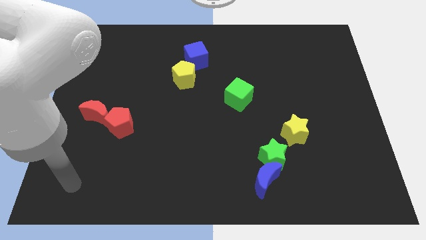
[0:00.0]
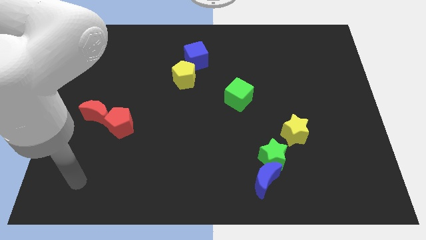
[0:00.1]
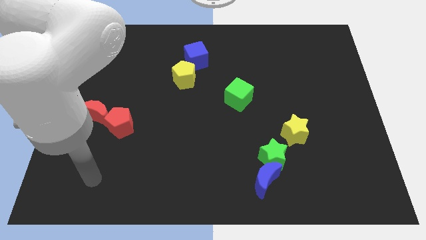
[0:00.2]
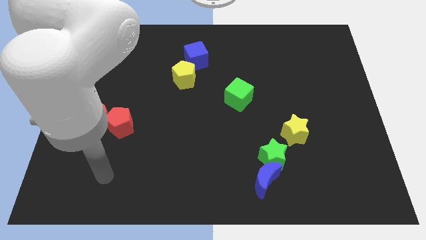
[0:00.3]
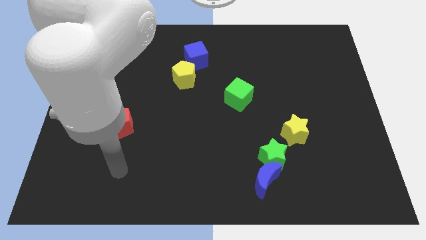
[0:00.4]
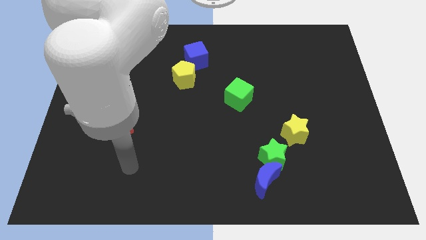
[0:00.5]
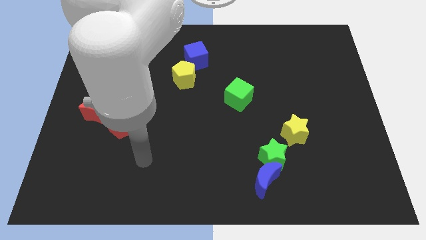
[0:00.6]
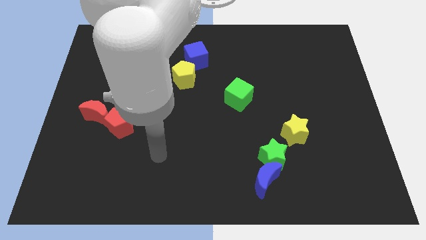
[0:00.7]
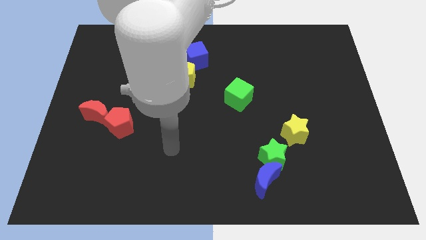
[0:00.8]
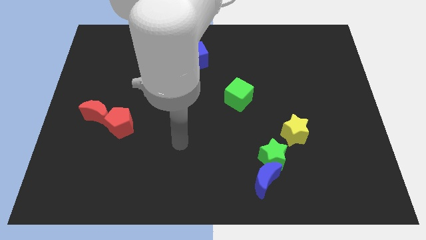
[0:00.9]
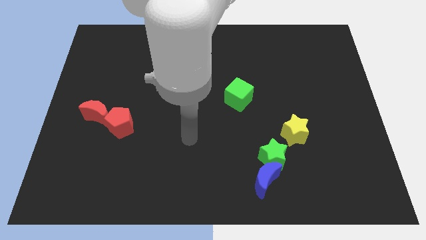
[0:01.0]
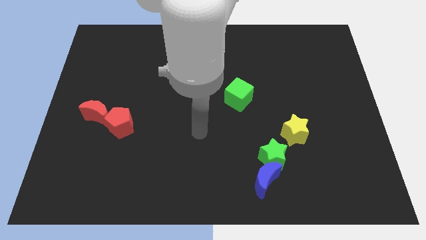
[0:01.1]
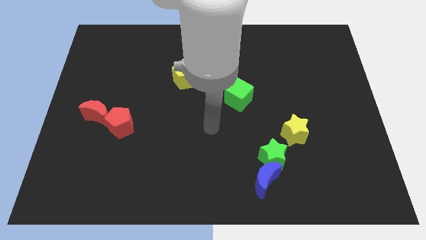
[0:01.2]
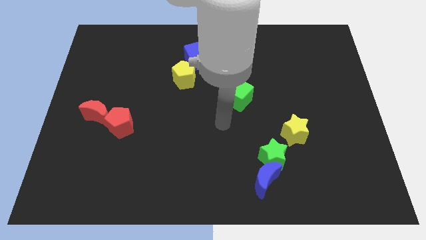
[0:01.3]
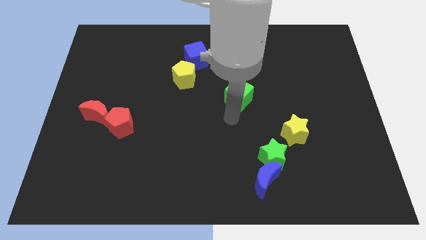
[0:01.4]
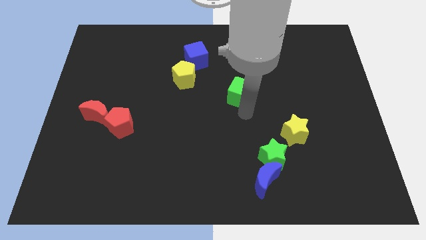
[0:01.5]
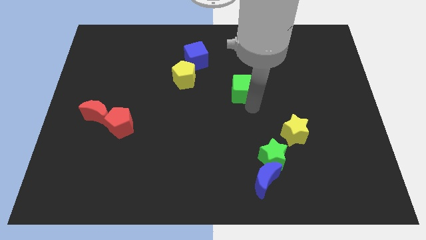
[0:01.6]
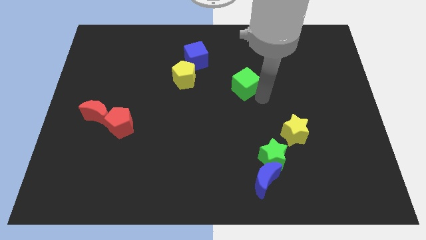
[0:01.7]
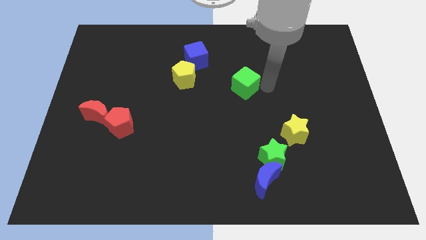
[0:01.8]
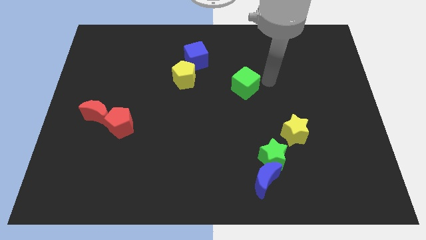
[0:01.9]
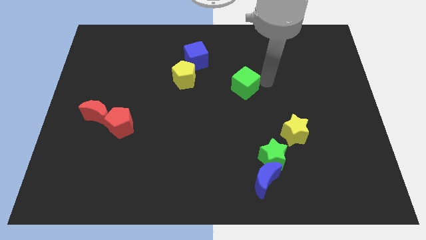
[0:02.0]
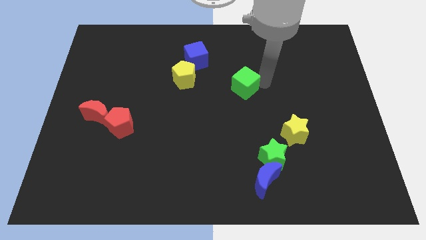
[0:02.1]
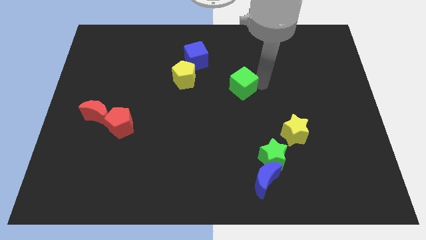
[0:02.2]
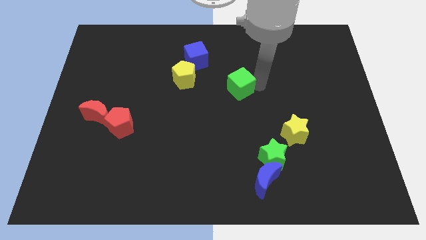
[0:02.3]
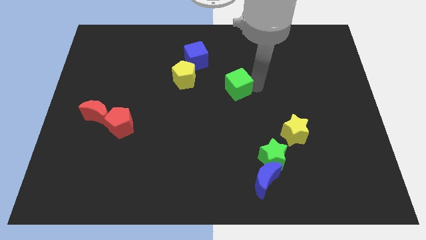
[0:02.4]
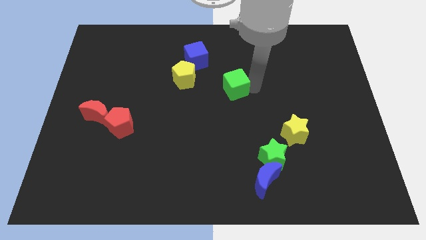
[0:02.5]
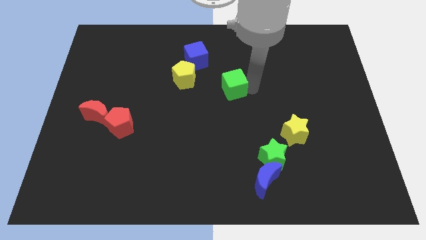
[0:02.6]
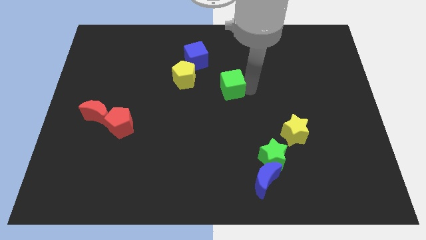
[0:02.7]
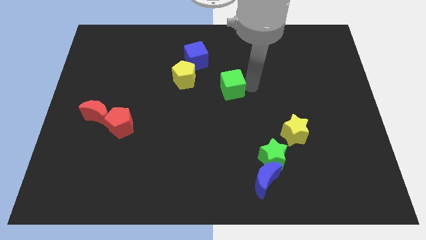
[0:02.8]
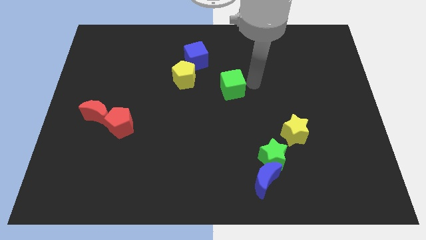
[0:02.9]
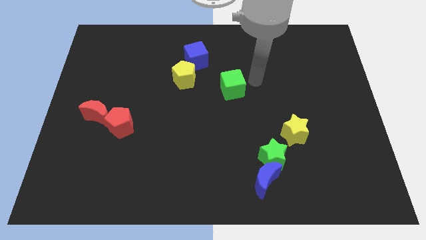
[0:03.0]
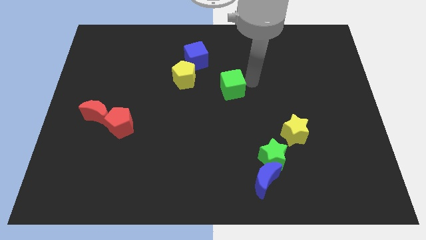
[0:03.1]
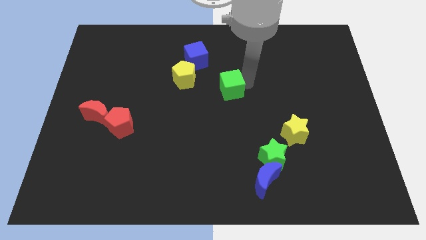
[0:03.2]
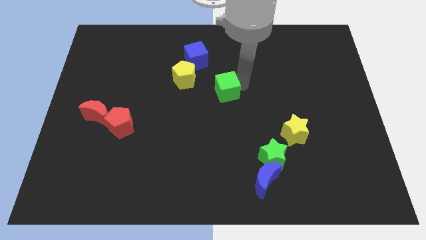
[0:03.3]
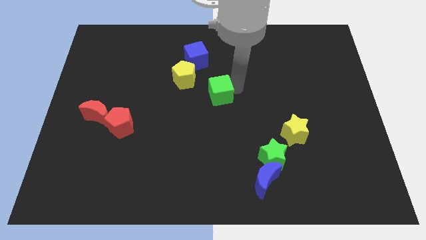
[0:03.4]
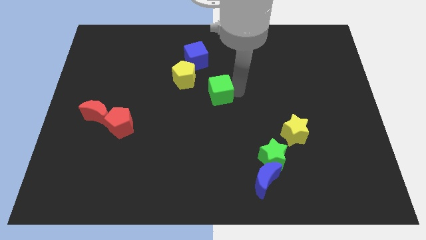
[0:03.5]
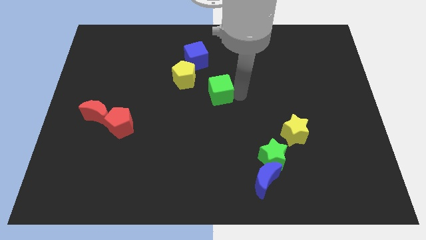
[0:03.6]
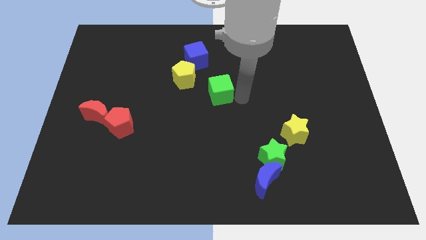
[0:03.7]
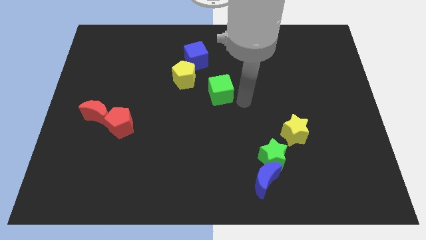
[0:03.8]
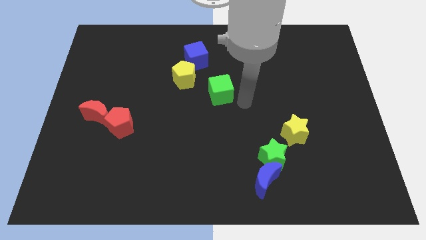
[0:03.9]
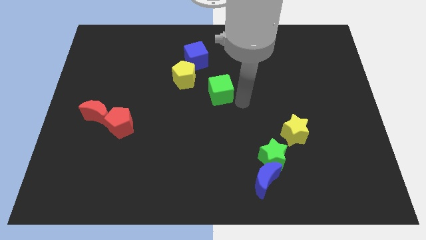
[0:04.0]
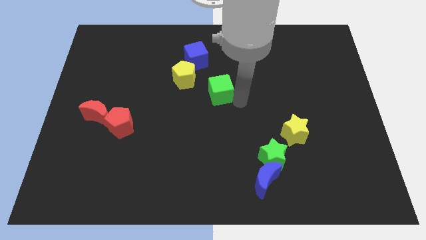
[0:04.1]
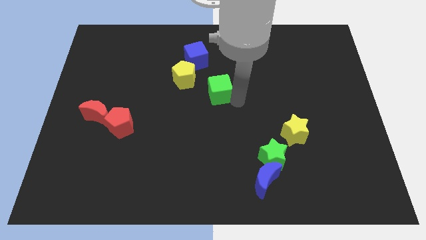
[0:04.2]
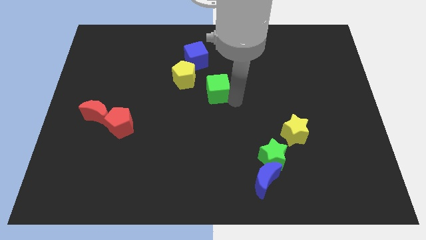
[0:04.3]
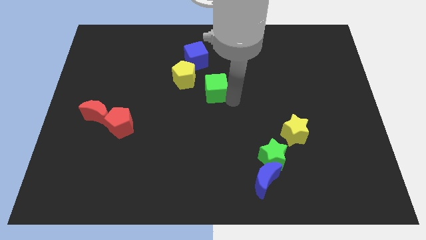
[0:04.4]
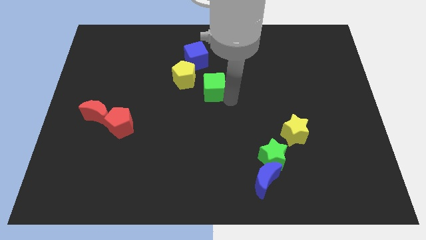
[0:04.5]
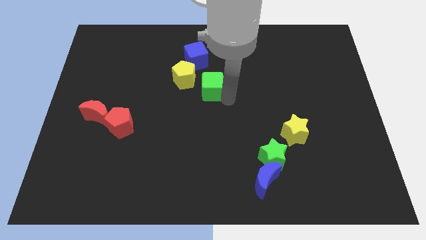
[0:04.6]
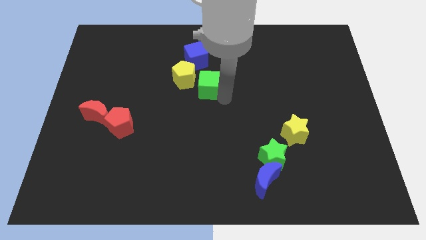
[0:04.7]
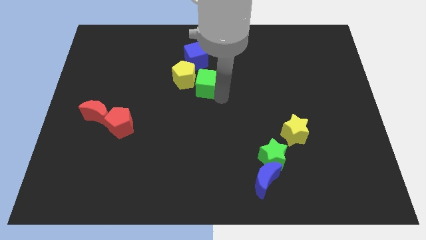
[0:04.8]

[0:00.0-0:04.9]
move the green cube towards the yellow pentagon

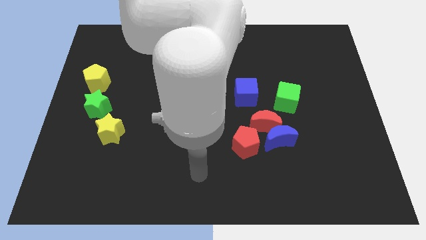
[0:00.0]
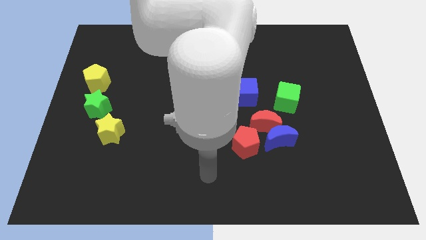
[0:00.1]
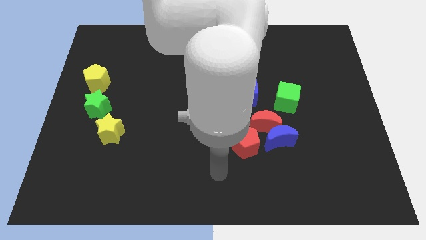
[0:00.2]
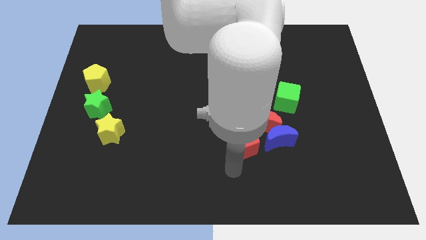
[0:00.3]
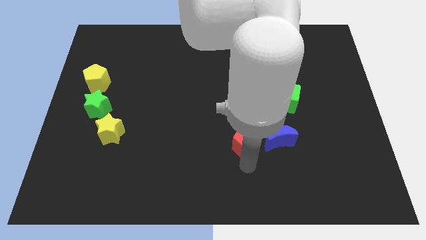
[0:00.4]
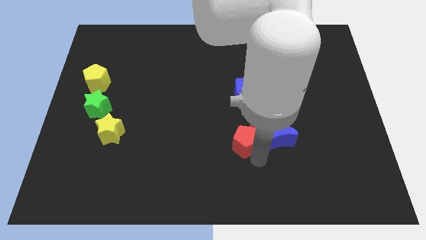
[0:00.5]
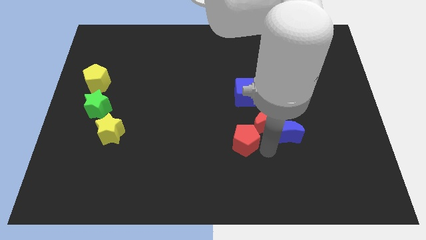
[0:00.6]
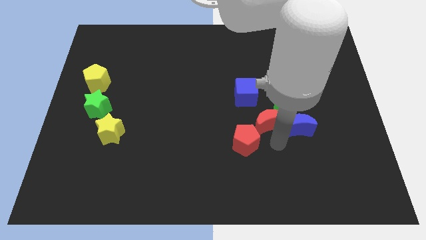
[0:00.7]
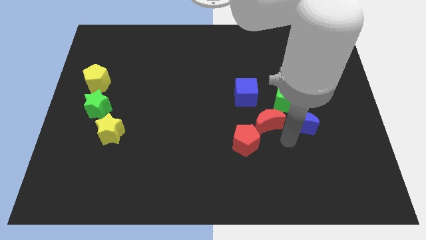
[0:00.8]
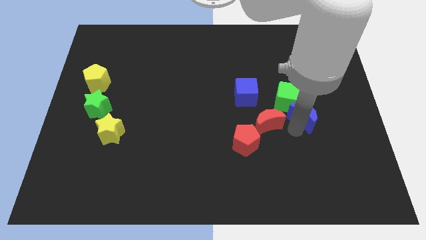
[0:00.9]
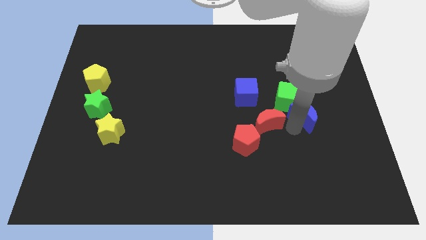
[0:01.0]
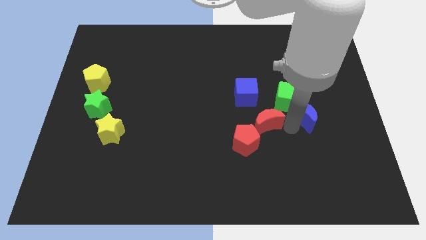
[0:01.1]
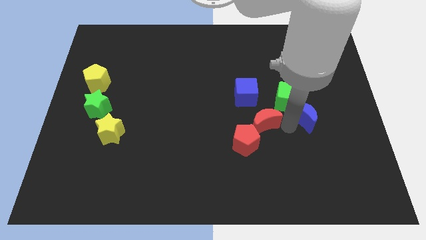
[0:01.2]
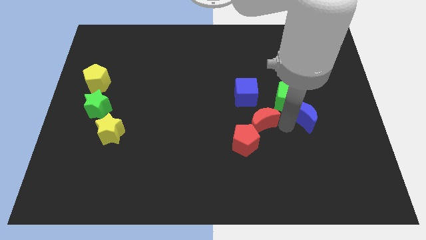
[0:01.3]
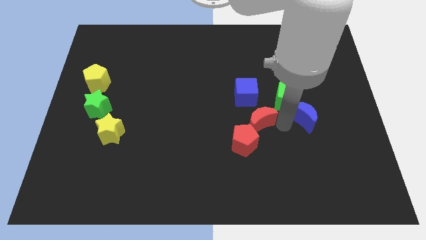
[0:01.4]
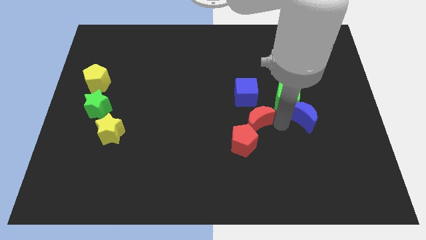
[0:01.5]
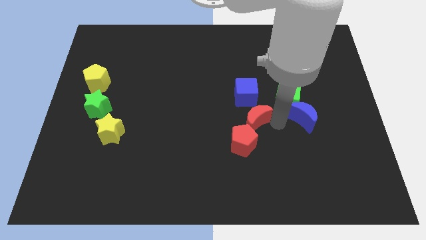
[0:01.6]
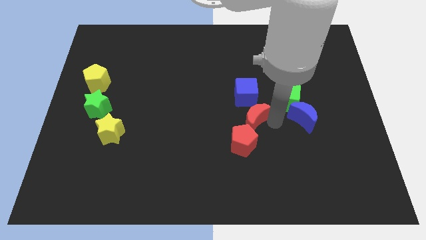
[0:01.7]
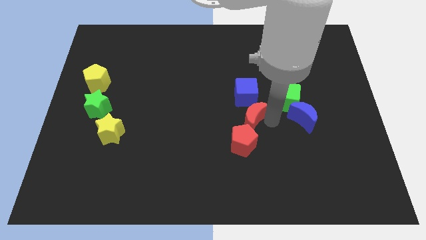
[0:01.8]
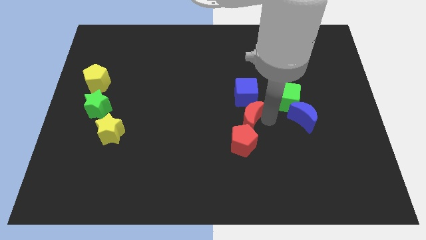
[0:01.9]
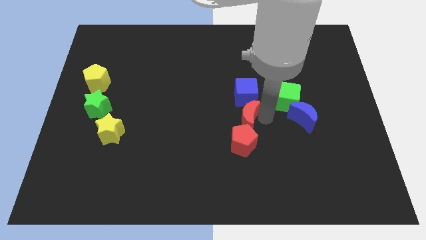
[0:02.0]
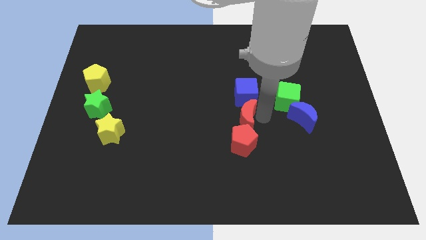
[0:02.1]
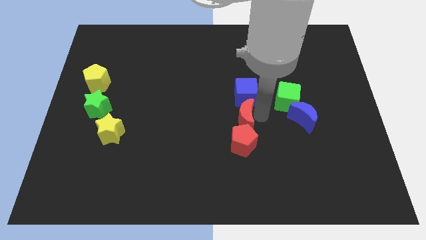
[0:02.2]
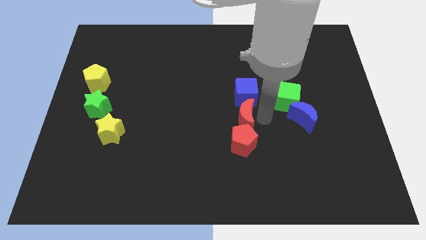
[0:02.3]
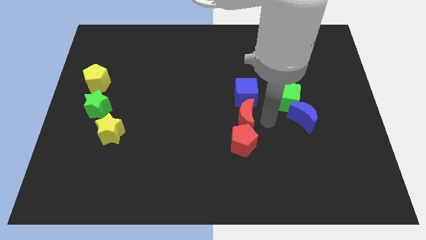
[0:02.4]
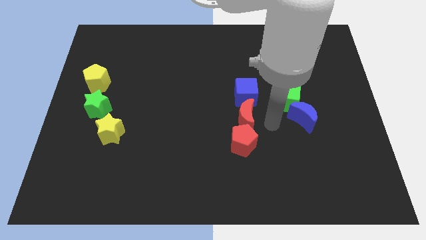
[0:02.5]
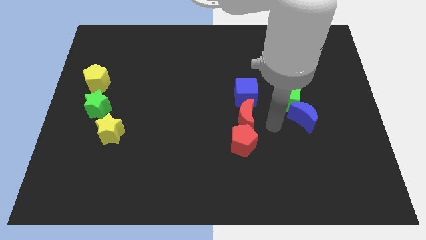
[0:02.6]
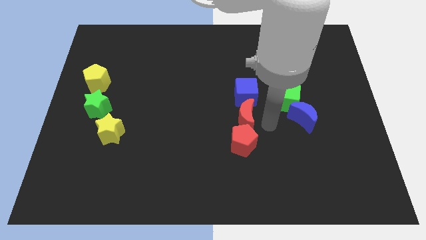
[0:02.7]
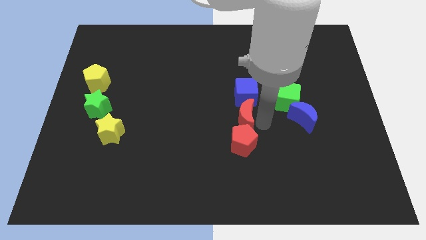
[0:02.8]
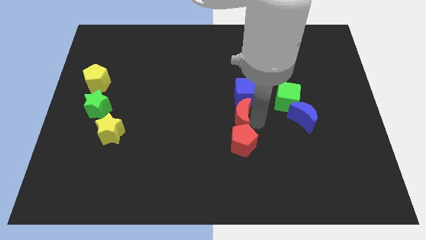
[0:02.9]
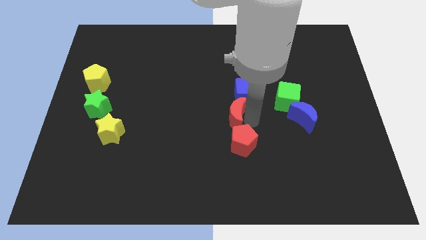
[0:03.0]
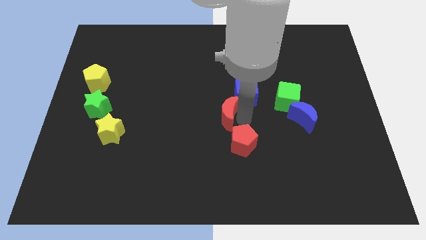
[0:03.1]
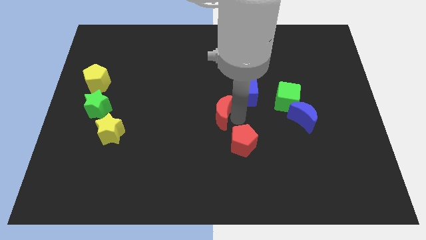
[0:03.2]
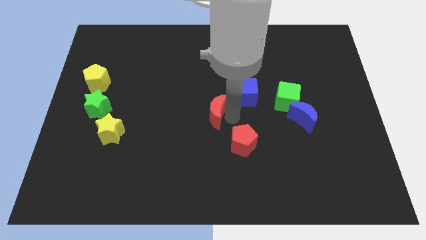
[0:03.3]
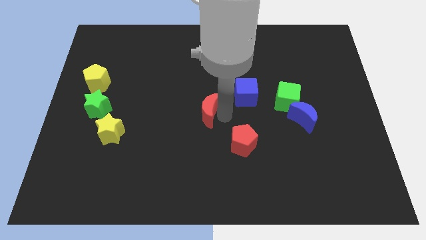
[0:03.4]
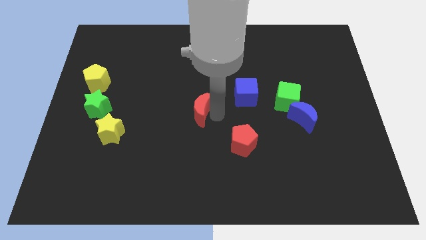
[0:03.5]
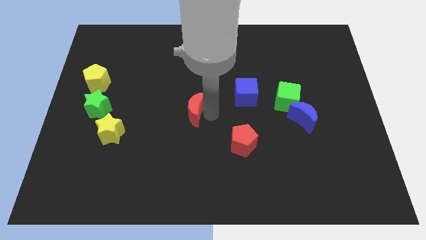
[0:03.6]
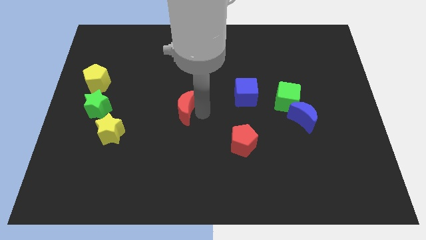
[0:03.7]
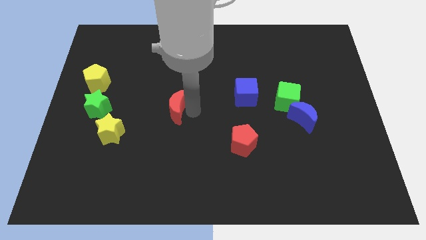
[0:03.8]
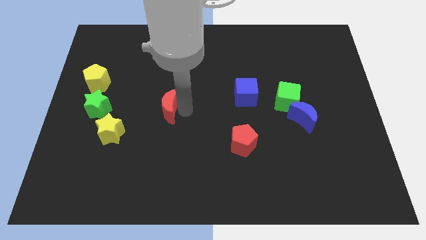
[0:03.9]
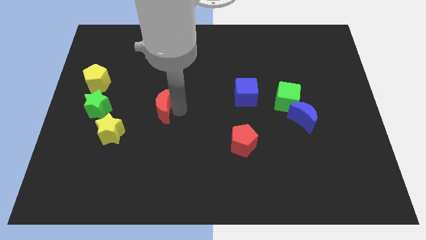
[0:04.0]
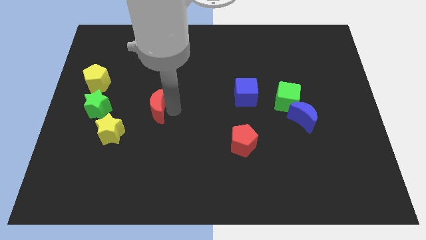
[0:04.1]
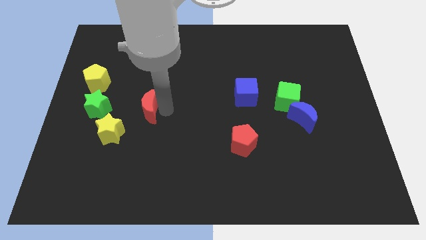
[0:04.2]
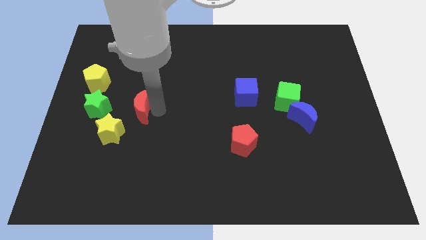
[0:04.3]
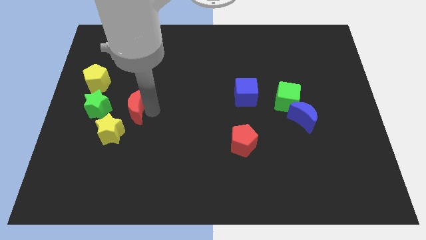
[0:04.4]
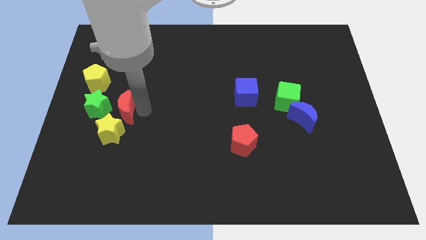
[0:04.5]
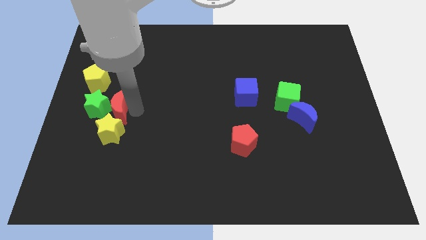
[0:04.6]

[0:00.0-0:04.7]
put the red moon close to the green star
